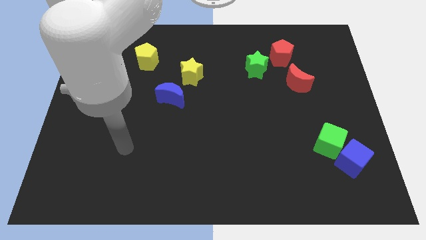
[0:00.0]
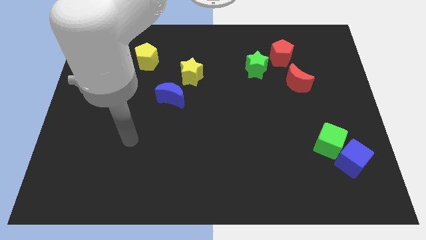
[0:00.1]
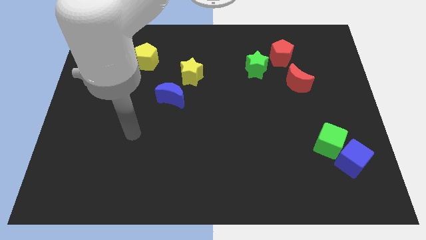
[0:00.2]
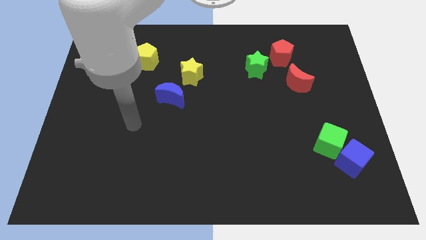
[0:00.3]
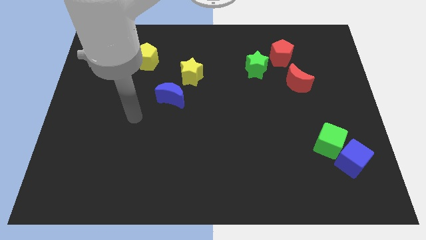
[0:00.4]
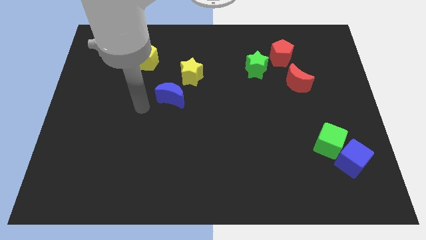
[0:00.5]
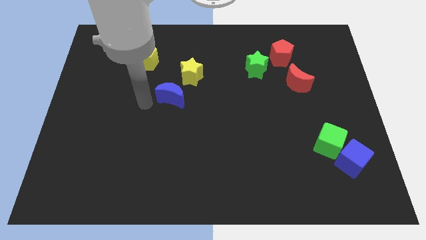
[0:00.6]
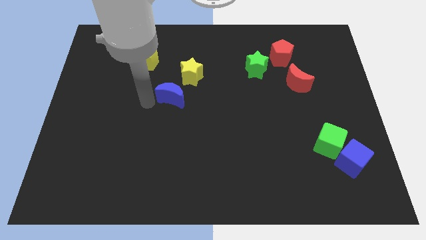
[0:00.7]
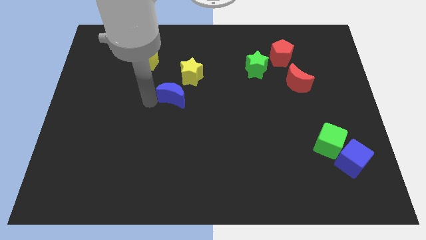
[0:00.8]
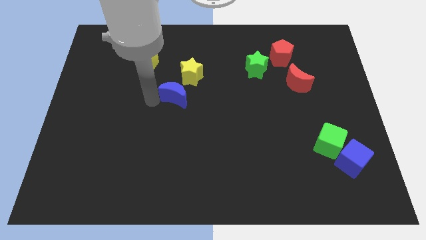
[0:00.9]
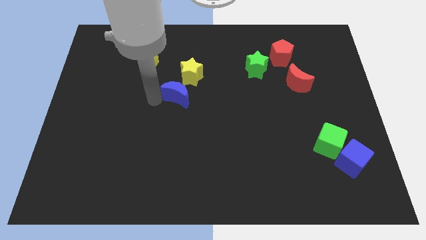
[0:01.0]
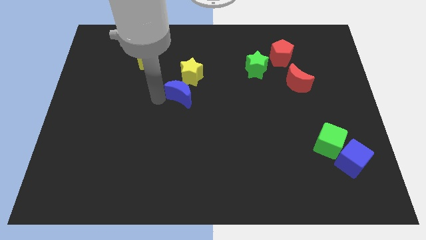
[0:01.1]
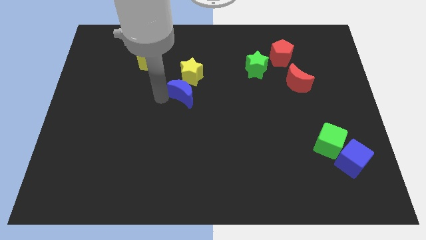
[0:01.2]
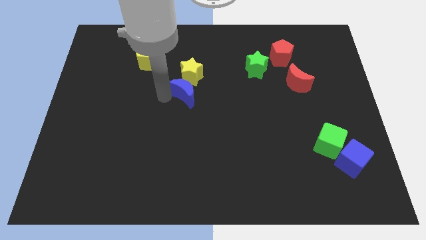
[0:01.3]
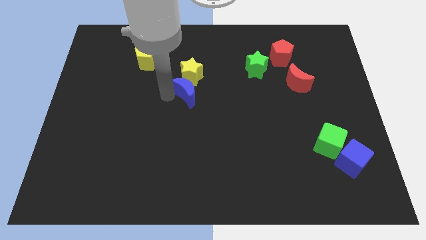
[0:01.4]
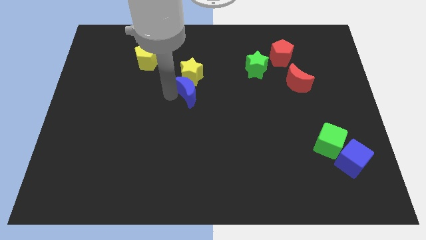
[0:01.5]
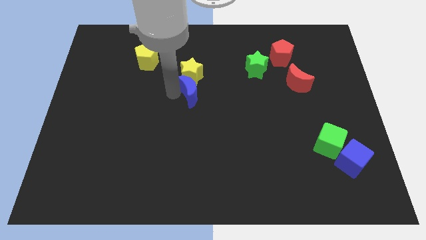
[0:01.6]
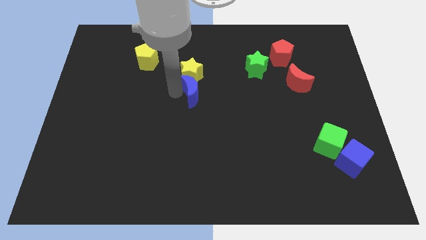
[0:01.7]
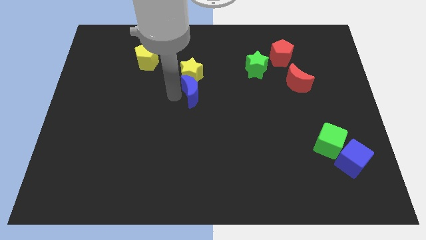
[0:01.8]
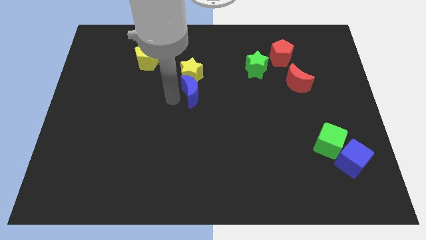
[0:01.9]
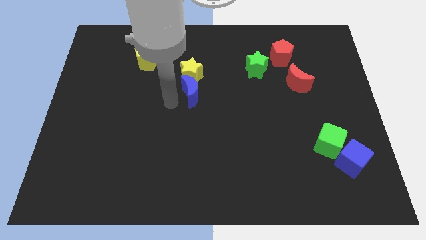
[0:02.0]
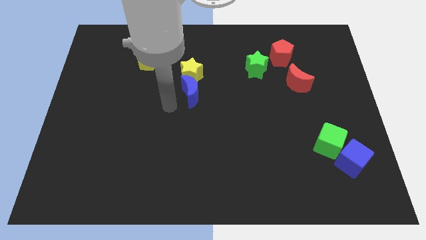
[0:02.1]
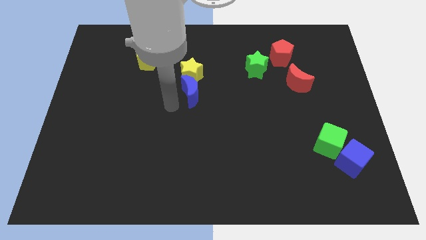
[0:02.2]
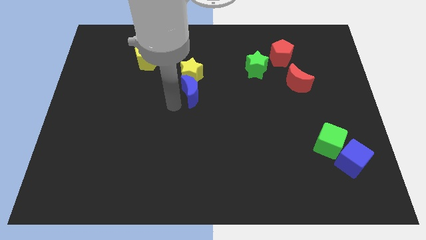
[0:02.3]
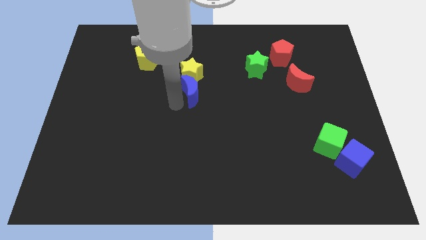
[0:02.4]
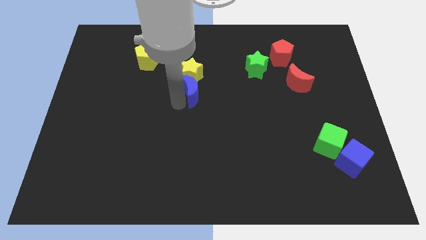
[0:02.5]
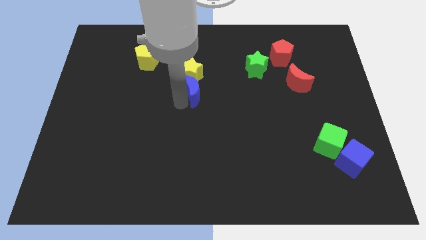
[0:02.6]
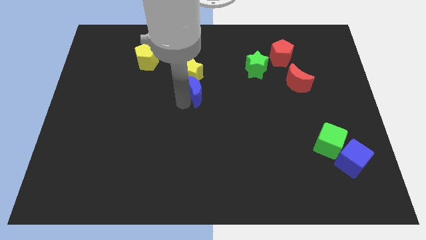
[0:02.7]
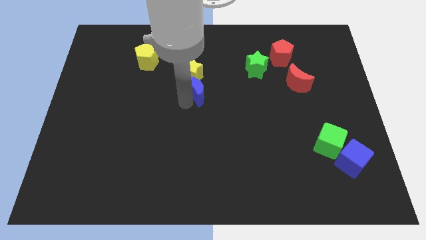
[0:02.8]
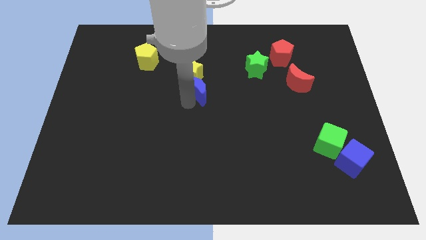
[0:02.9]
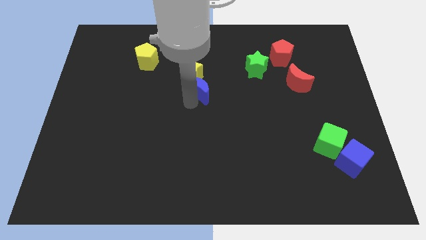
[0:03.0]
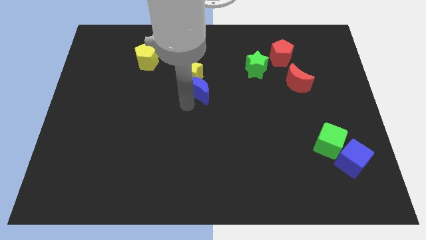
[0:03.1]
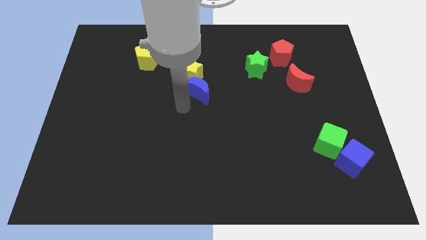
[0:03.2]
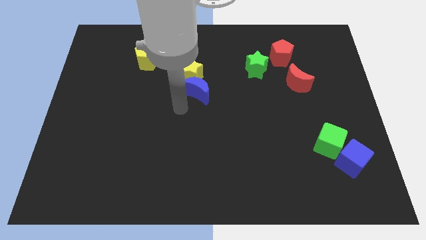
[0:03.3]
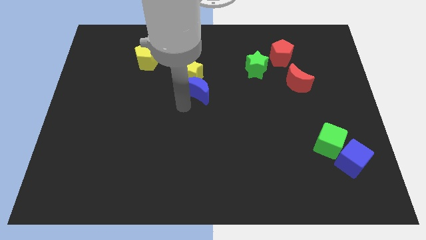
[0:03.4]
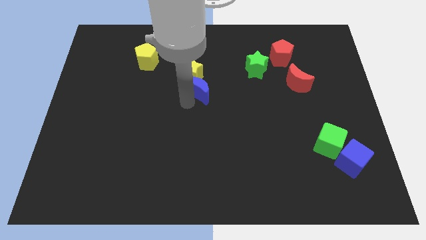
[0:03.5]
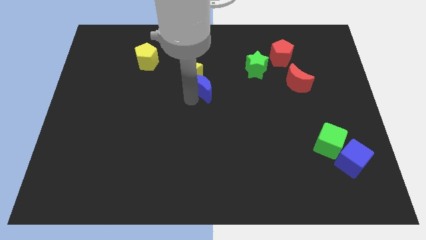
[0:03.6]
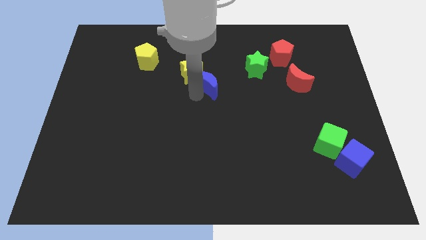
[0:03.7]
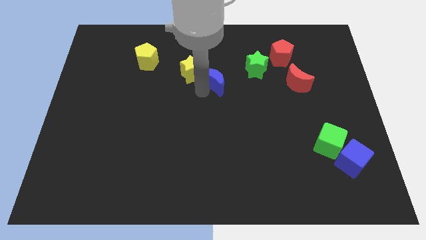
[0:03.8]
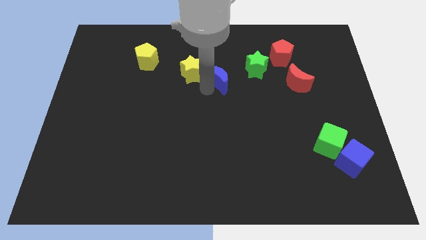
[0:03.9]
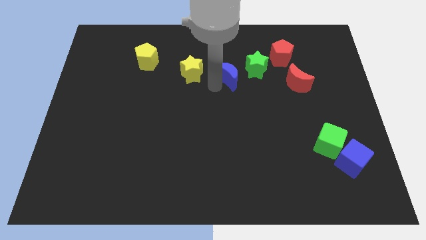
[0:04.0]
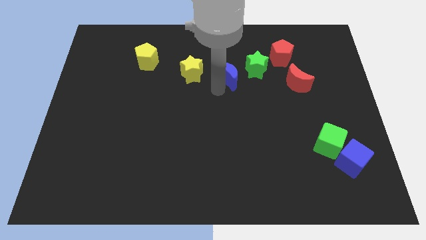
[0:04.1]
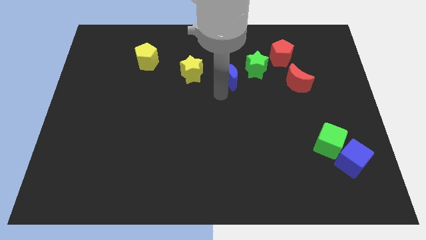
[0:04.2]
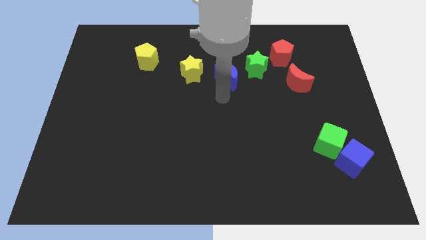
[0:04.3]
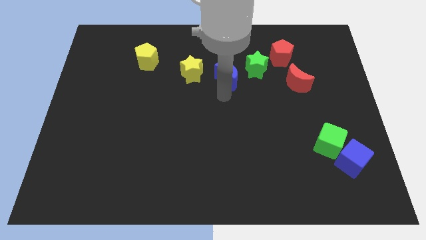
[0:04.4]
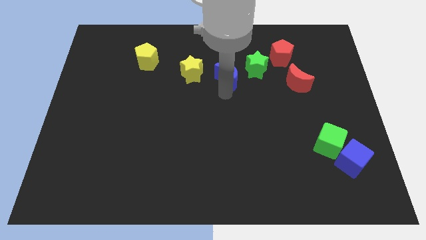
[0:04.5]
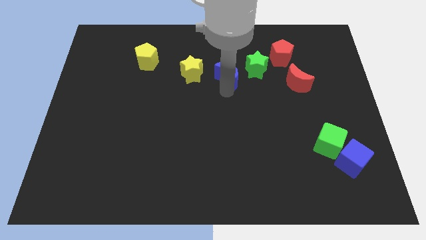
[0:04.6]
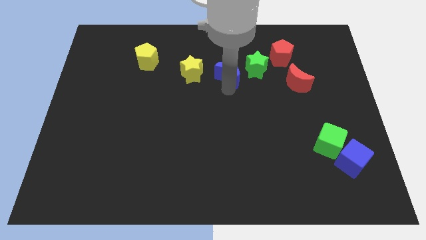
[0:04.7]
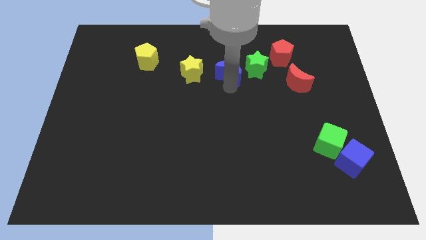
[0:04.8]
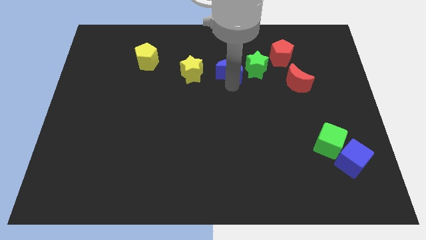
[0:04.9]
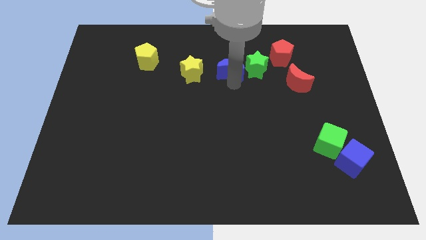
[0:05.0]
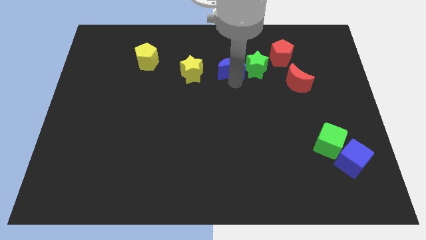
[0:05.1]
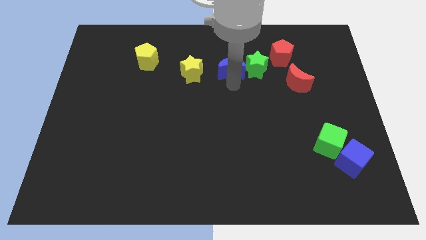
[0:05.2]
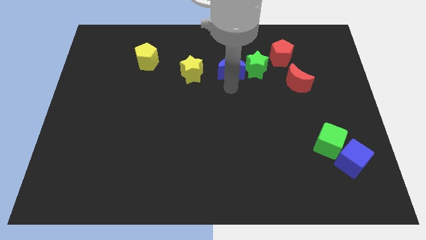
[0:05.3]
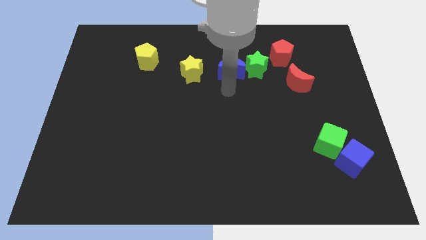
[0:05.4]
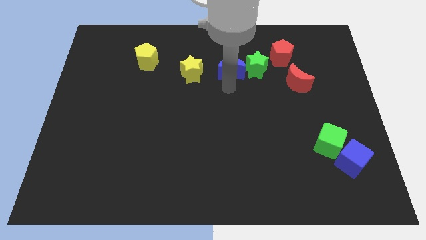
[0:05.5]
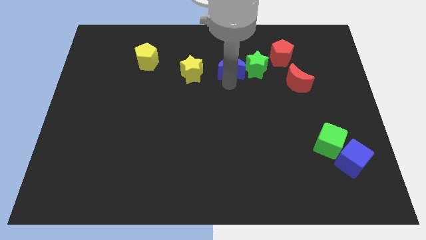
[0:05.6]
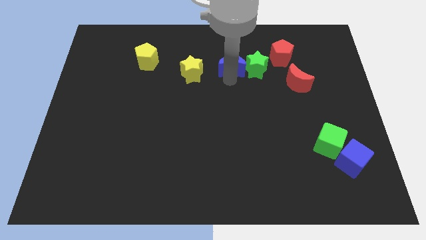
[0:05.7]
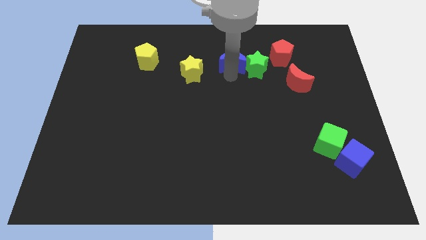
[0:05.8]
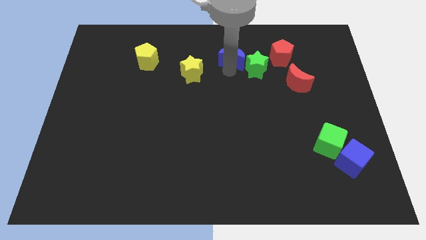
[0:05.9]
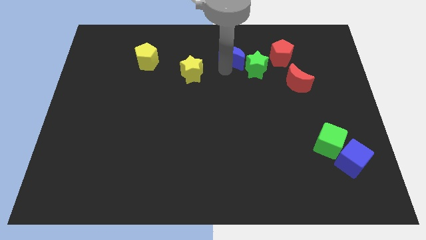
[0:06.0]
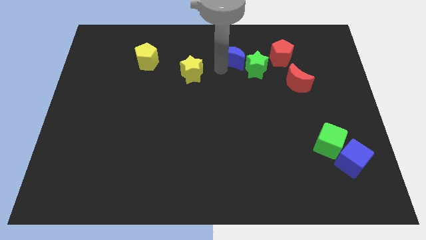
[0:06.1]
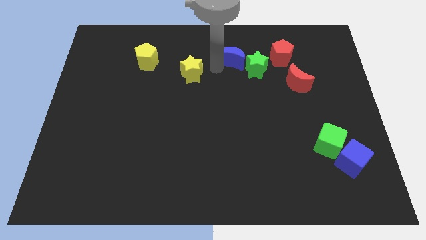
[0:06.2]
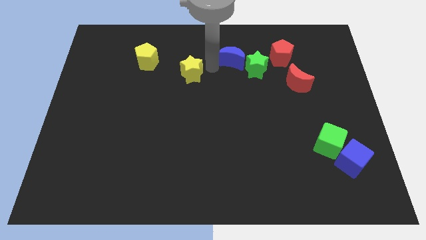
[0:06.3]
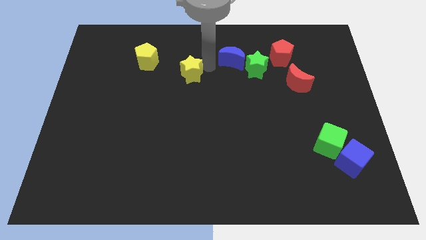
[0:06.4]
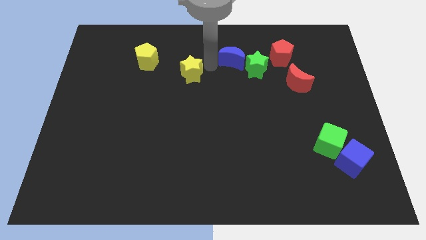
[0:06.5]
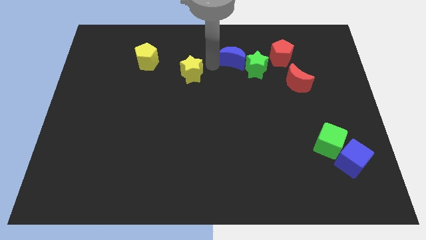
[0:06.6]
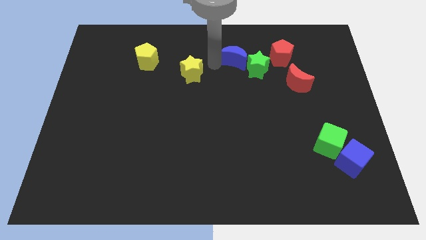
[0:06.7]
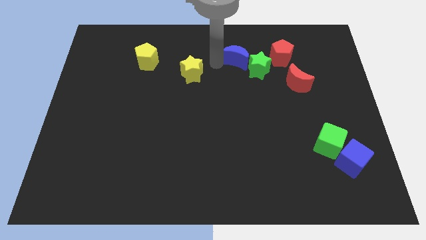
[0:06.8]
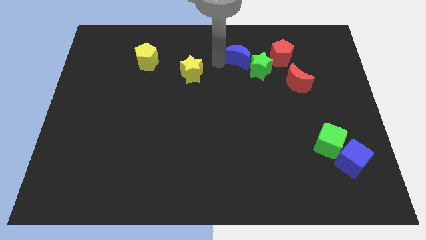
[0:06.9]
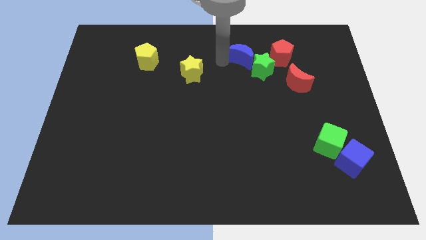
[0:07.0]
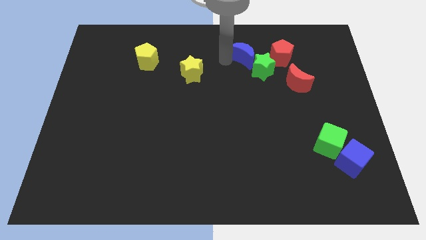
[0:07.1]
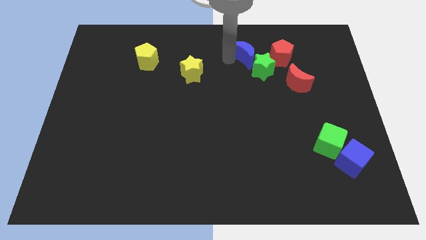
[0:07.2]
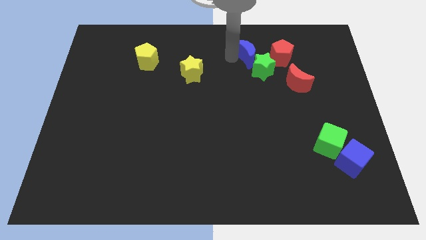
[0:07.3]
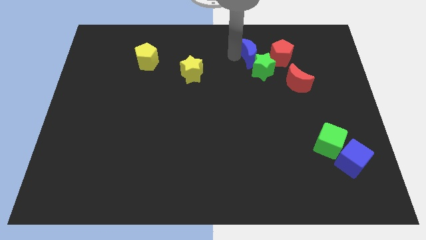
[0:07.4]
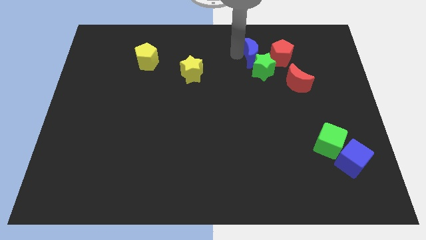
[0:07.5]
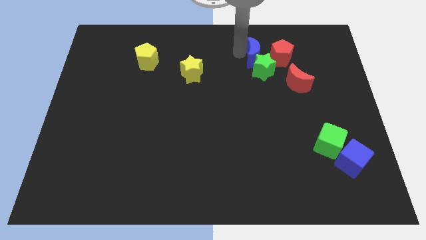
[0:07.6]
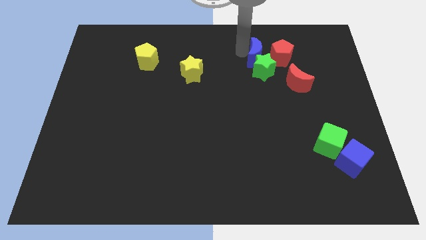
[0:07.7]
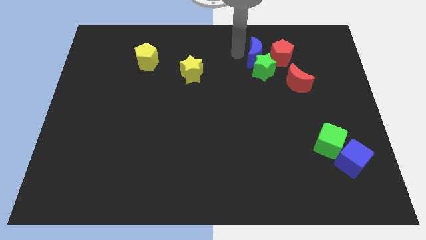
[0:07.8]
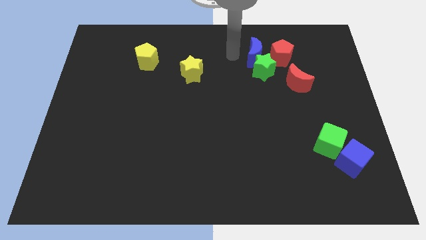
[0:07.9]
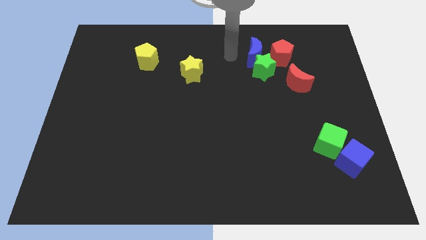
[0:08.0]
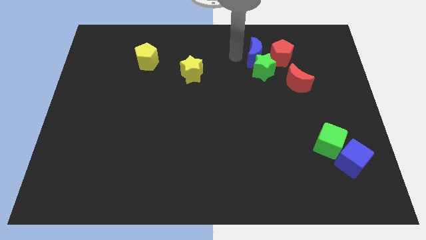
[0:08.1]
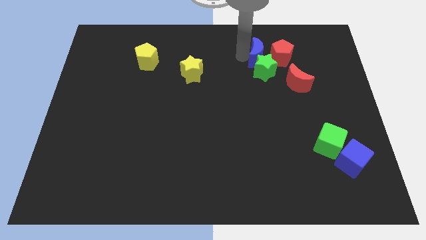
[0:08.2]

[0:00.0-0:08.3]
move the blue moon close to the red pentagon
